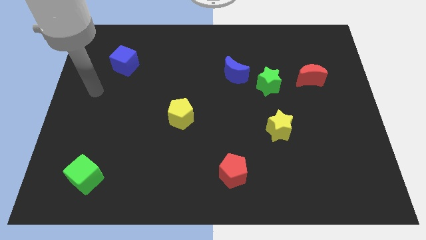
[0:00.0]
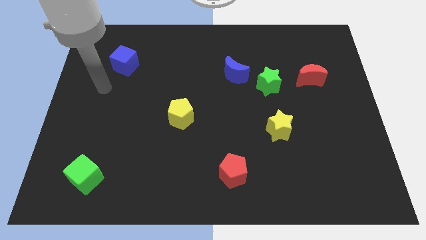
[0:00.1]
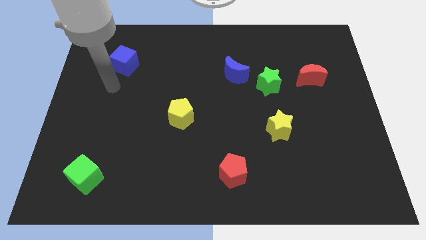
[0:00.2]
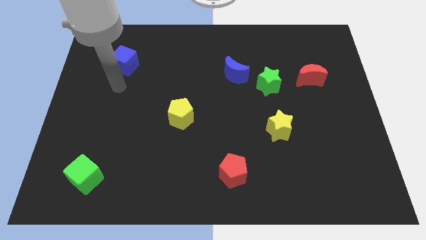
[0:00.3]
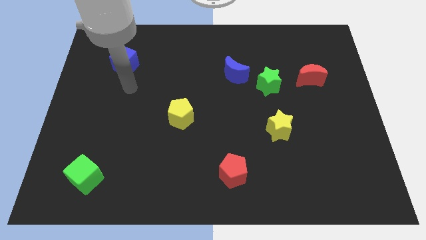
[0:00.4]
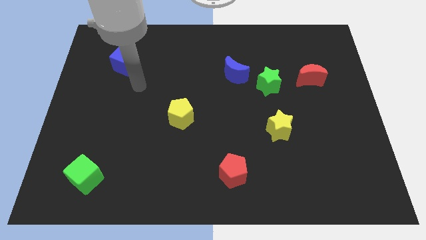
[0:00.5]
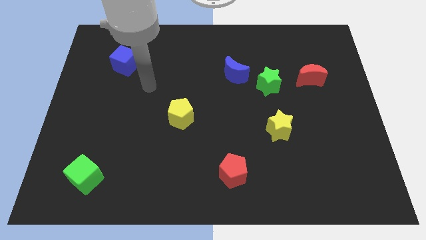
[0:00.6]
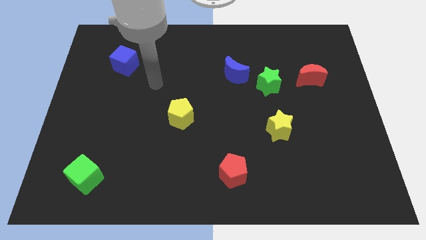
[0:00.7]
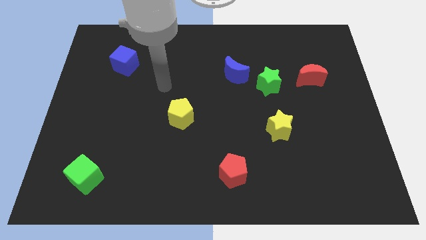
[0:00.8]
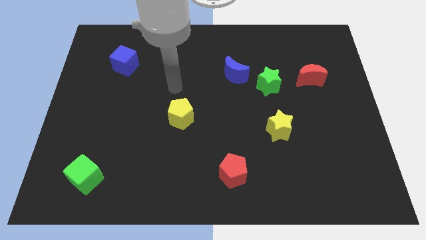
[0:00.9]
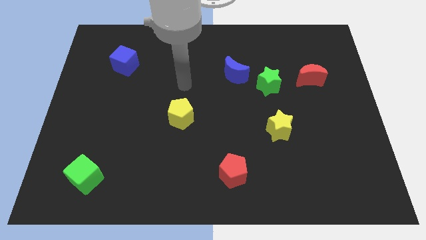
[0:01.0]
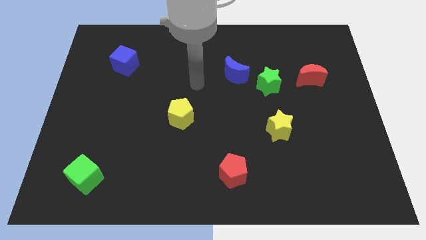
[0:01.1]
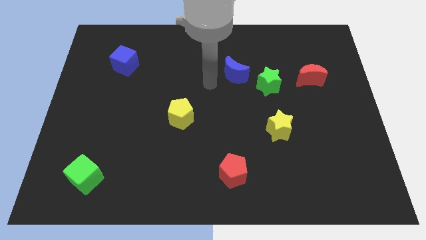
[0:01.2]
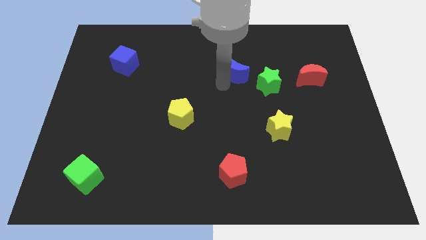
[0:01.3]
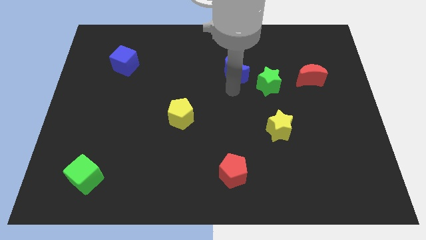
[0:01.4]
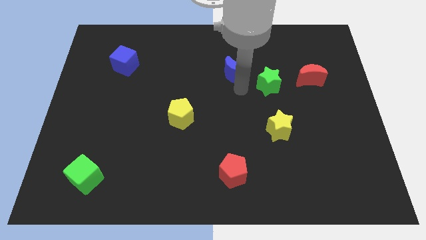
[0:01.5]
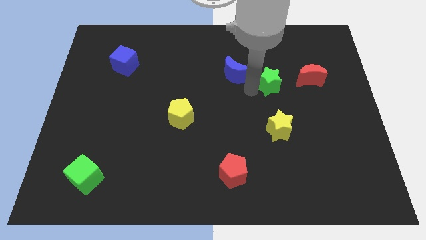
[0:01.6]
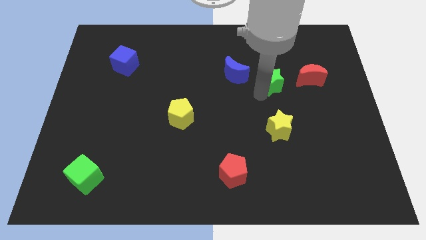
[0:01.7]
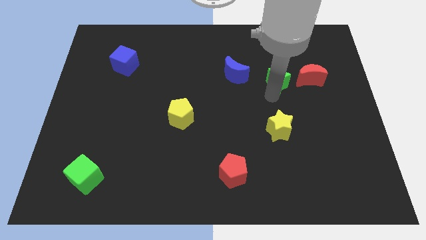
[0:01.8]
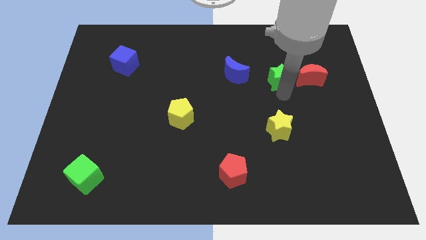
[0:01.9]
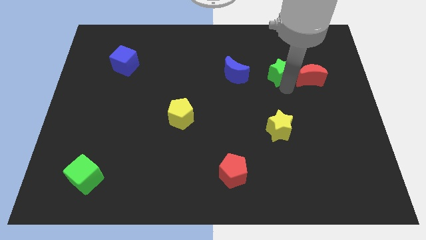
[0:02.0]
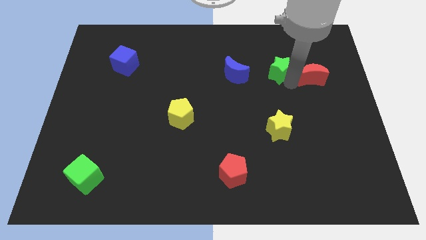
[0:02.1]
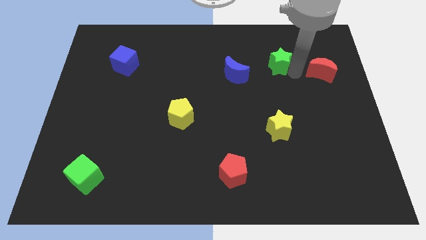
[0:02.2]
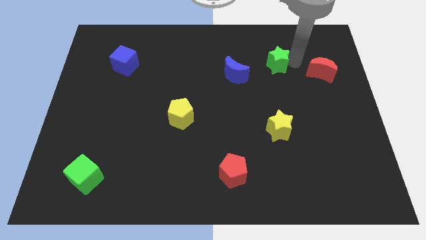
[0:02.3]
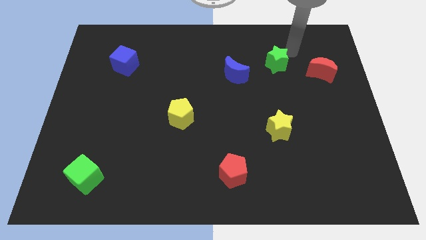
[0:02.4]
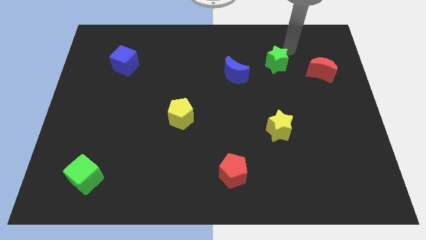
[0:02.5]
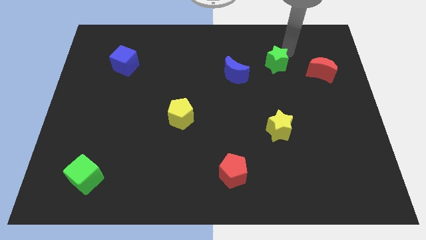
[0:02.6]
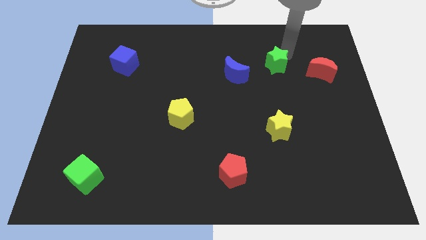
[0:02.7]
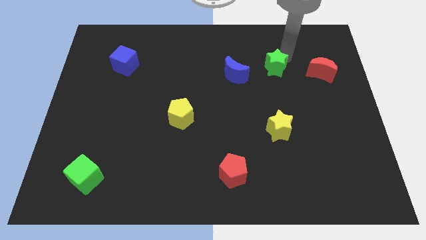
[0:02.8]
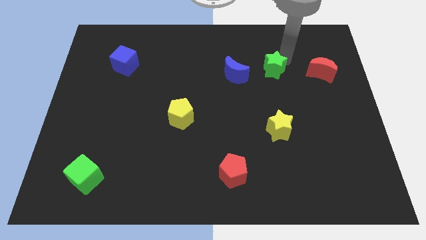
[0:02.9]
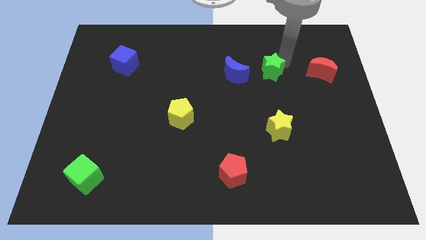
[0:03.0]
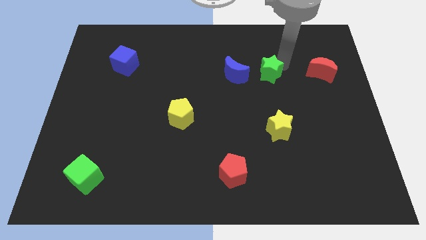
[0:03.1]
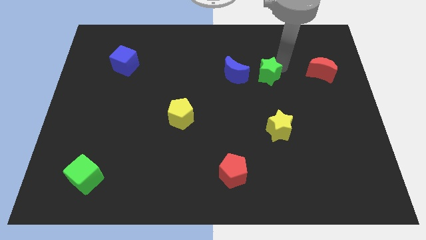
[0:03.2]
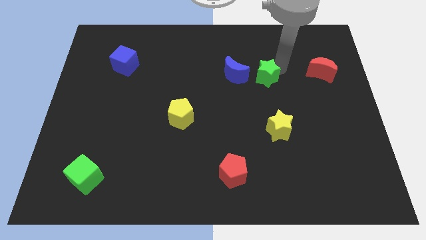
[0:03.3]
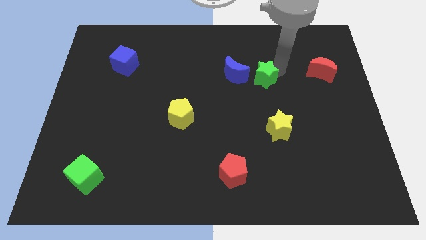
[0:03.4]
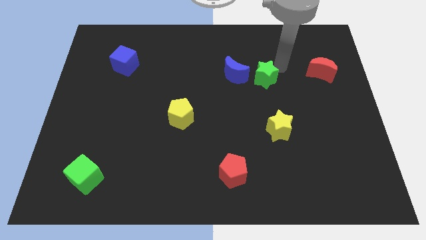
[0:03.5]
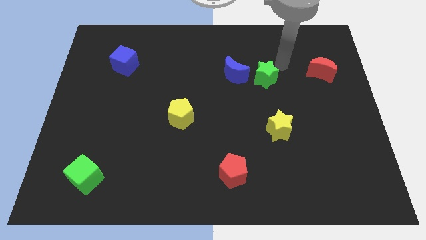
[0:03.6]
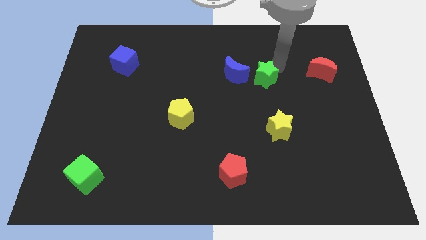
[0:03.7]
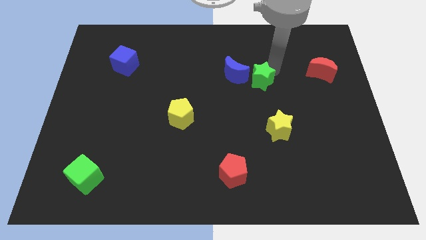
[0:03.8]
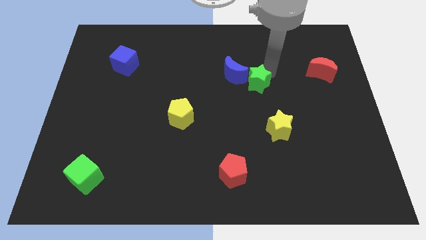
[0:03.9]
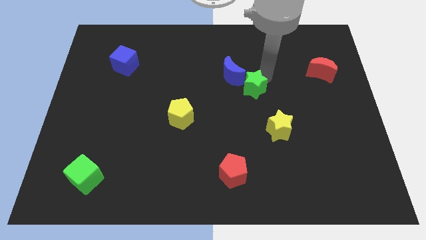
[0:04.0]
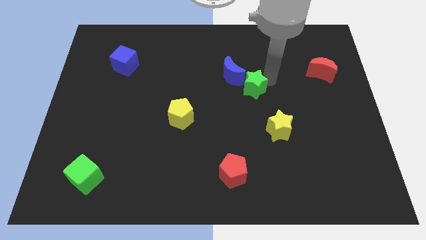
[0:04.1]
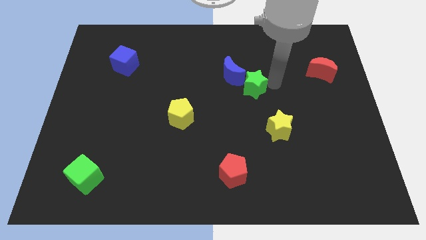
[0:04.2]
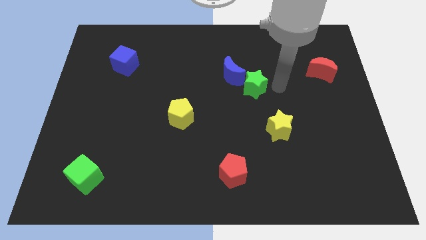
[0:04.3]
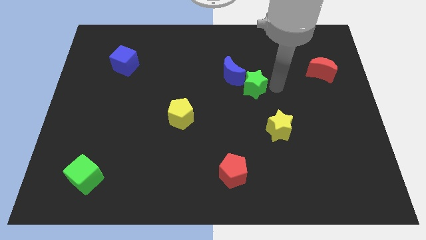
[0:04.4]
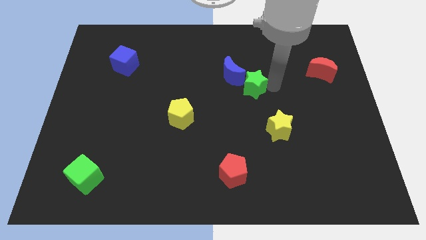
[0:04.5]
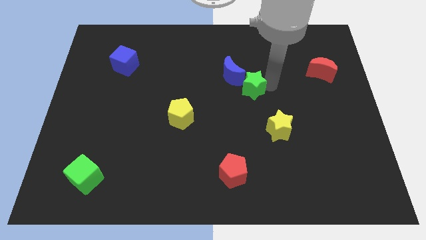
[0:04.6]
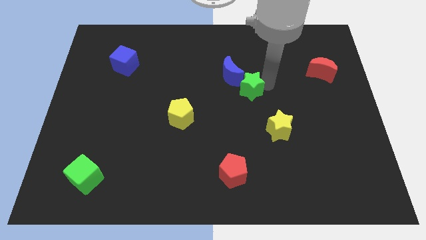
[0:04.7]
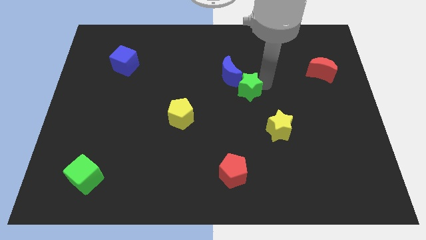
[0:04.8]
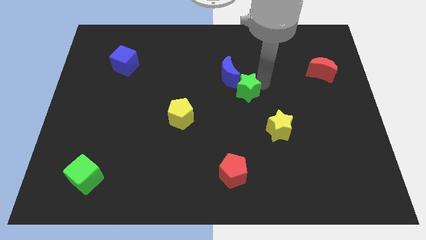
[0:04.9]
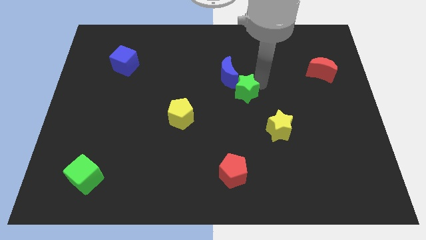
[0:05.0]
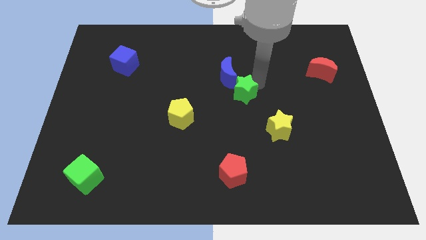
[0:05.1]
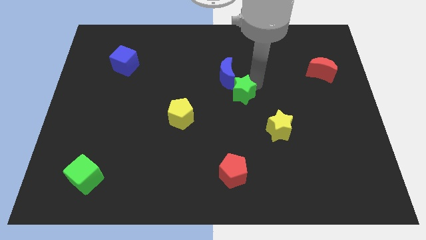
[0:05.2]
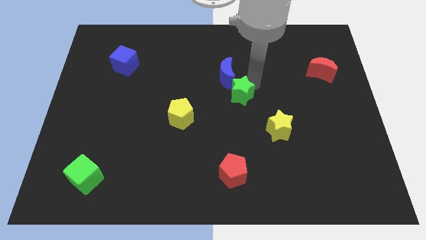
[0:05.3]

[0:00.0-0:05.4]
push the green star slightly left

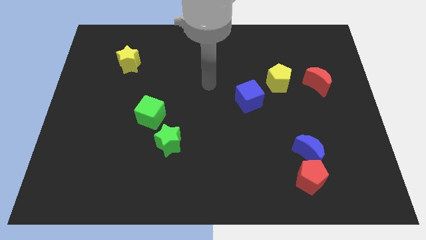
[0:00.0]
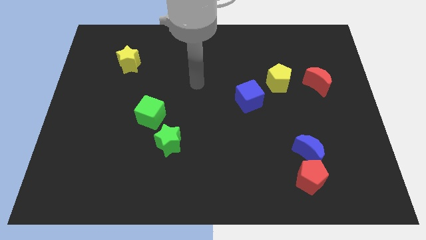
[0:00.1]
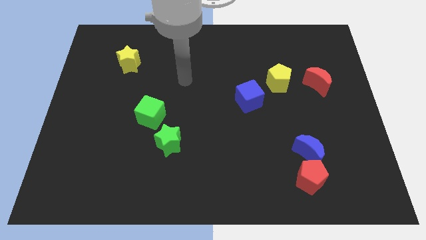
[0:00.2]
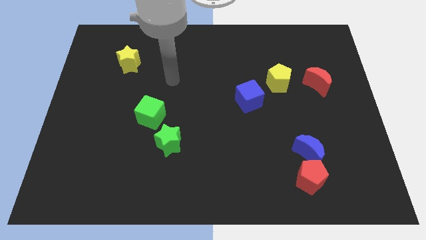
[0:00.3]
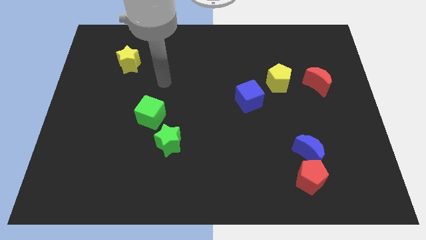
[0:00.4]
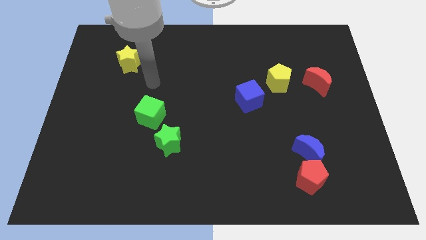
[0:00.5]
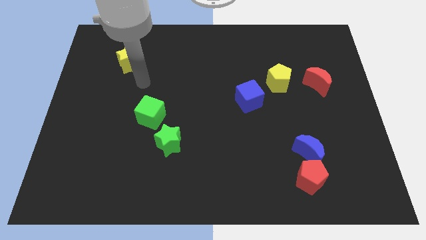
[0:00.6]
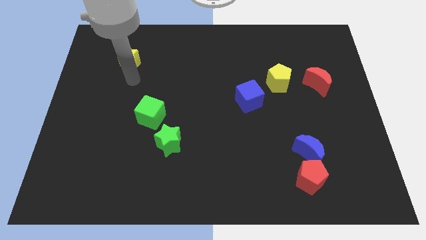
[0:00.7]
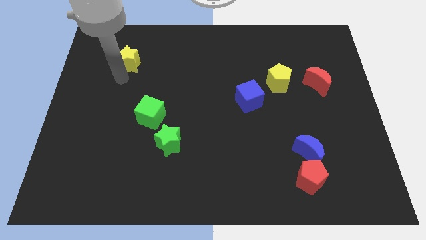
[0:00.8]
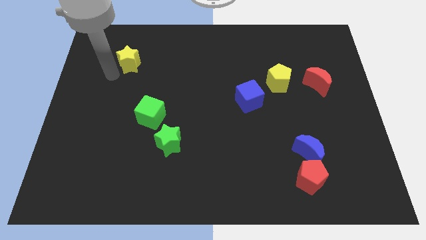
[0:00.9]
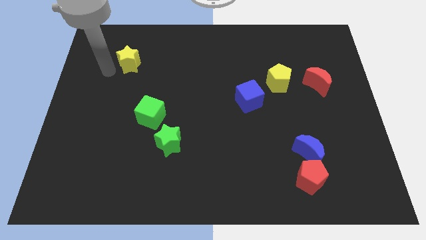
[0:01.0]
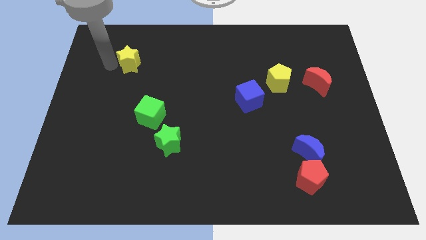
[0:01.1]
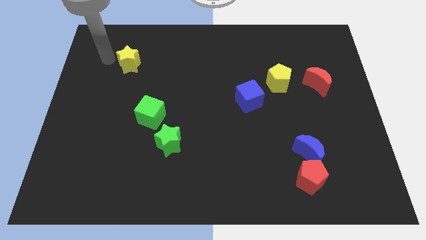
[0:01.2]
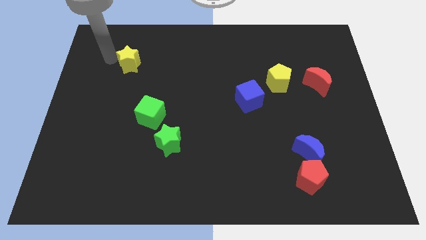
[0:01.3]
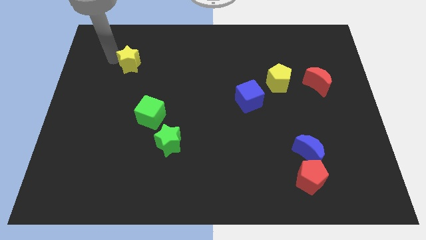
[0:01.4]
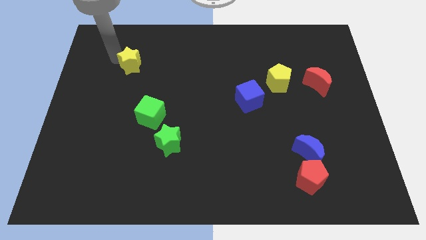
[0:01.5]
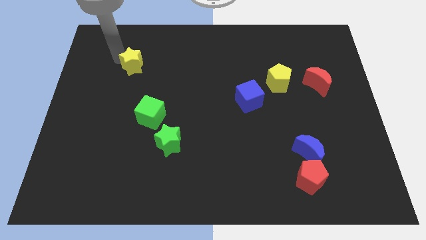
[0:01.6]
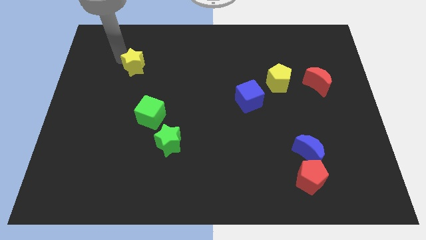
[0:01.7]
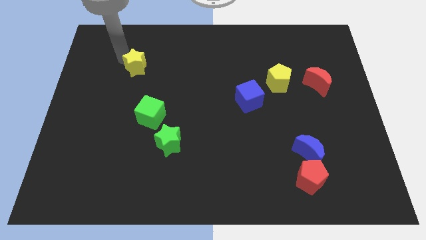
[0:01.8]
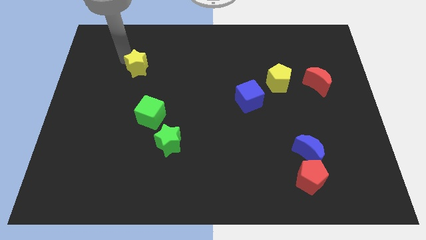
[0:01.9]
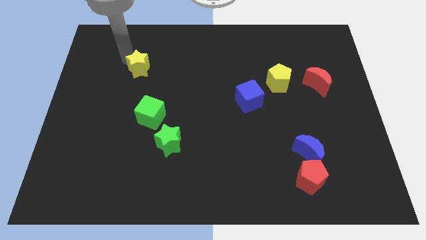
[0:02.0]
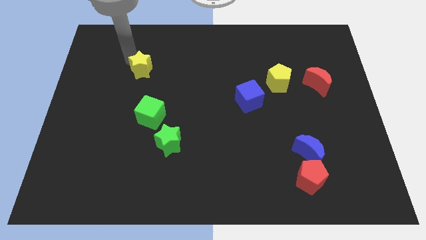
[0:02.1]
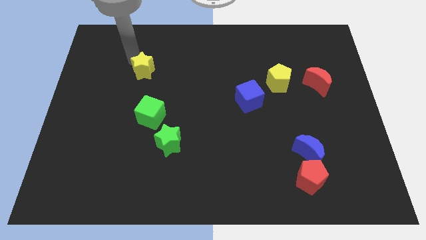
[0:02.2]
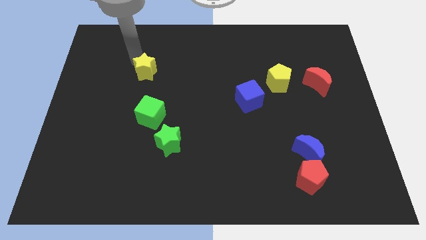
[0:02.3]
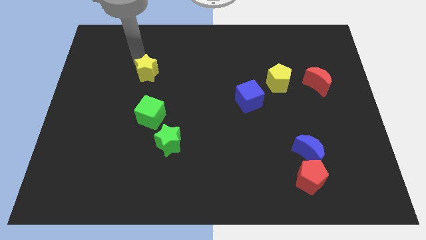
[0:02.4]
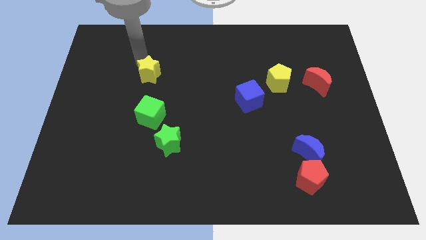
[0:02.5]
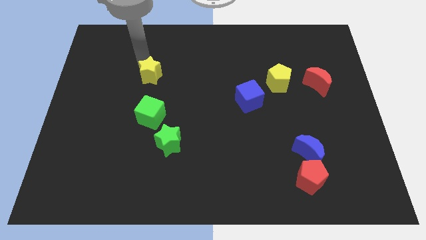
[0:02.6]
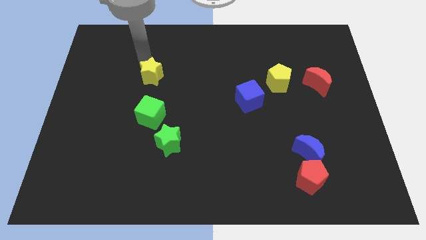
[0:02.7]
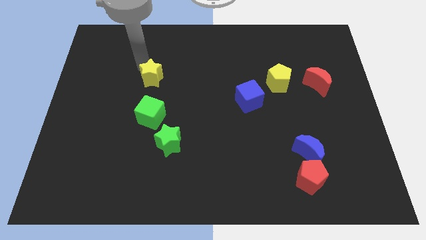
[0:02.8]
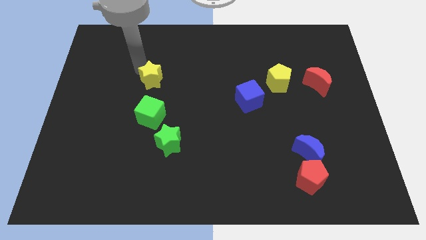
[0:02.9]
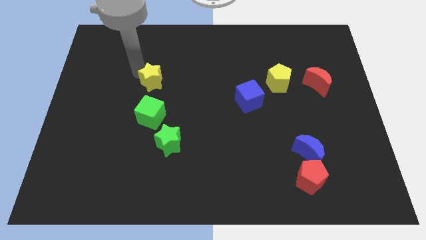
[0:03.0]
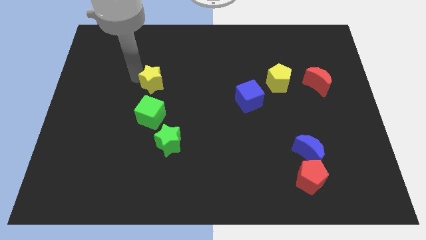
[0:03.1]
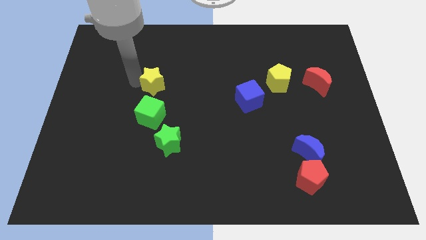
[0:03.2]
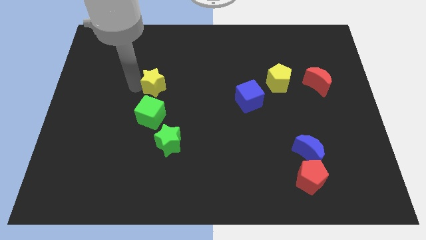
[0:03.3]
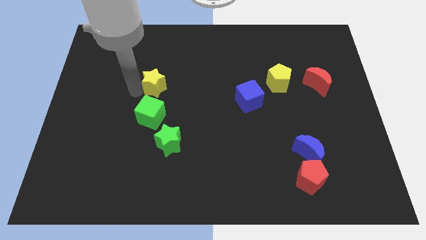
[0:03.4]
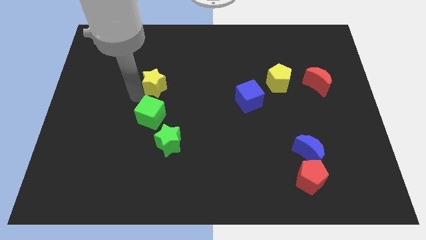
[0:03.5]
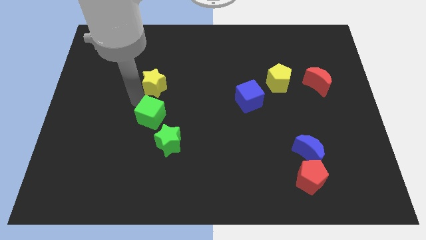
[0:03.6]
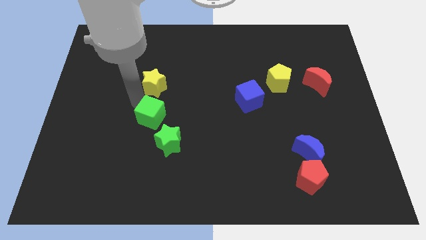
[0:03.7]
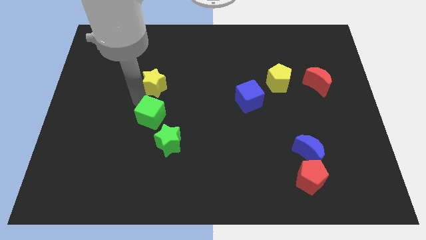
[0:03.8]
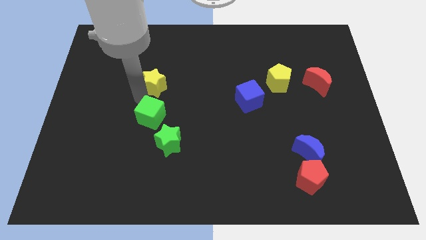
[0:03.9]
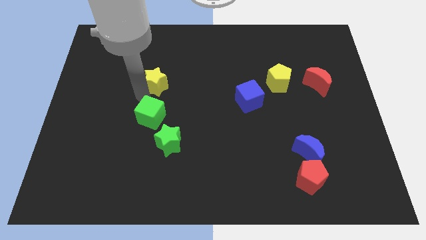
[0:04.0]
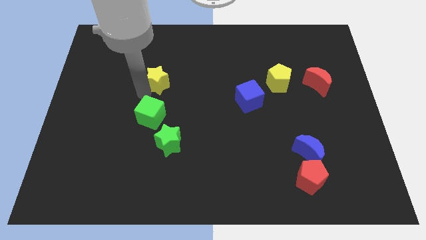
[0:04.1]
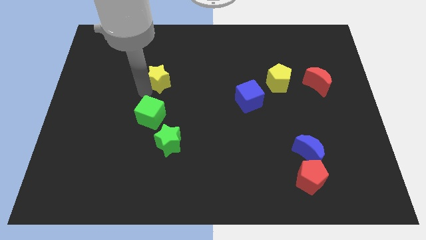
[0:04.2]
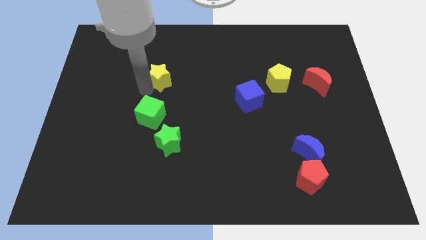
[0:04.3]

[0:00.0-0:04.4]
slightly push the yellow star right
